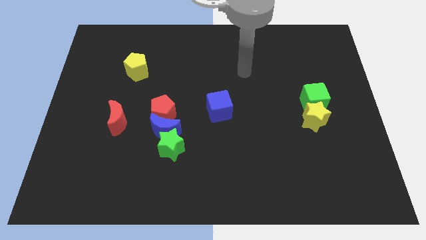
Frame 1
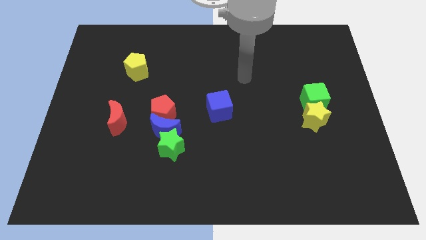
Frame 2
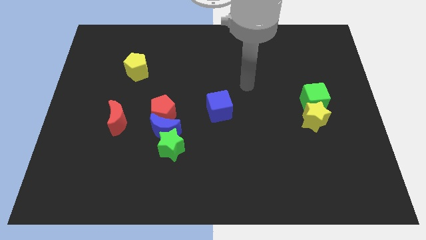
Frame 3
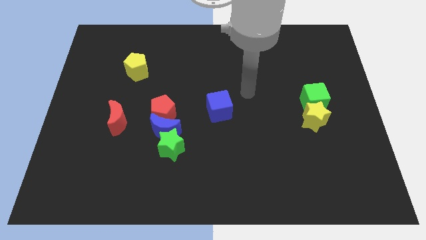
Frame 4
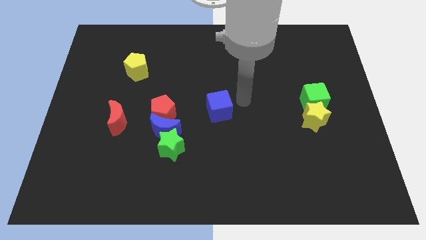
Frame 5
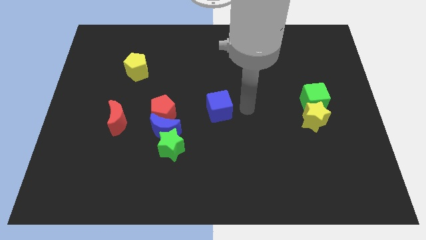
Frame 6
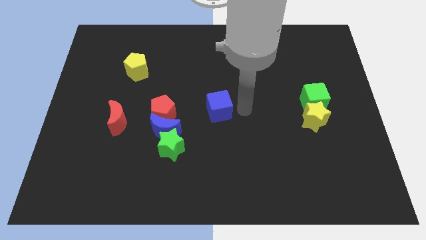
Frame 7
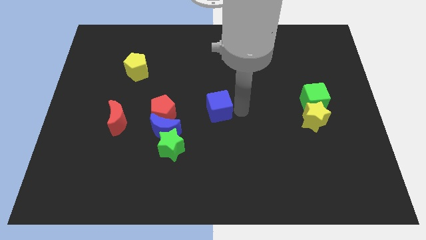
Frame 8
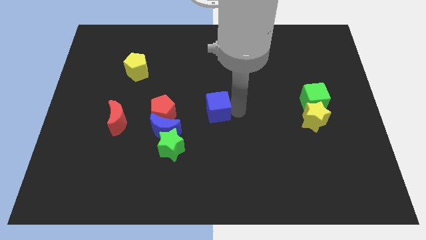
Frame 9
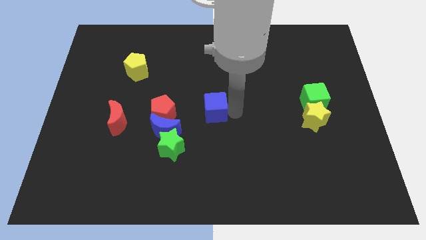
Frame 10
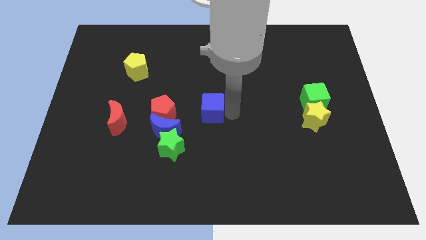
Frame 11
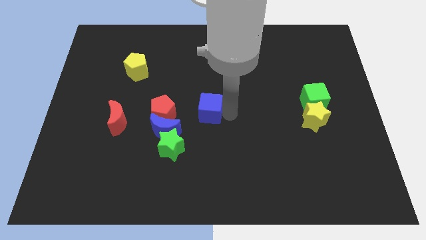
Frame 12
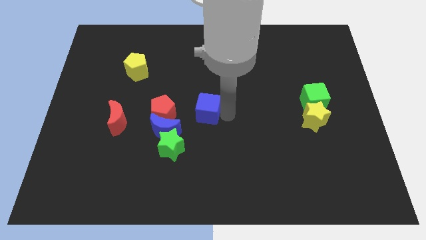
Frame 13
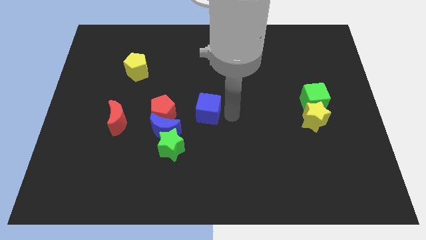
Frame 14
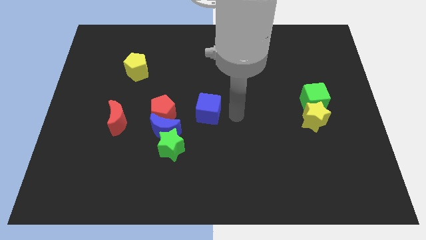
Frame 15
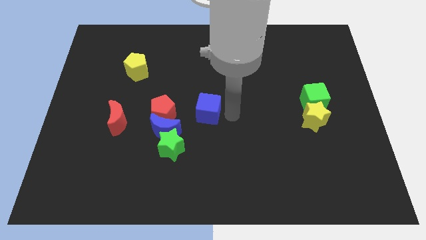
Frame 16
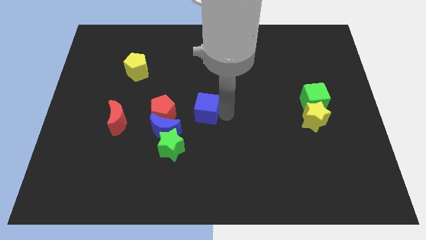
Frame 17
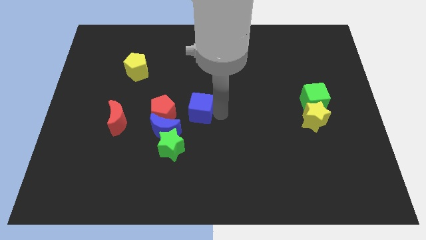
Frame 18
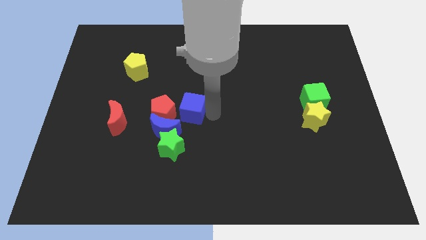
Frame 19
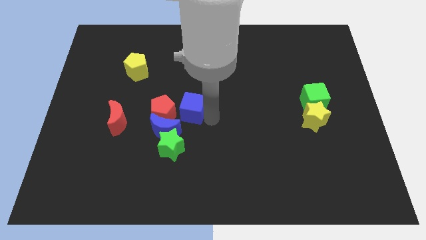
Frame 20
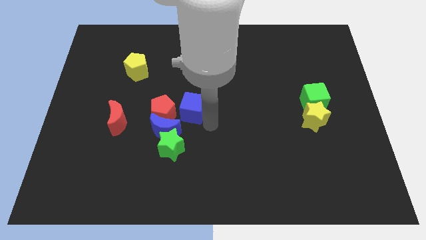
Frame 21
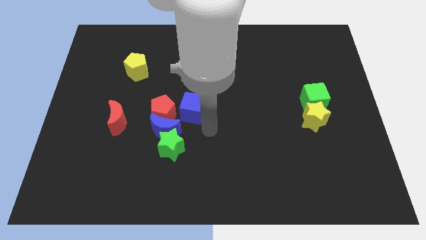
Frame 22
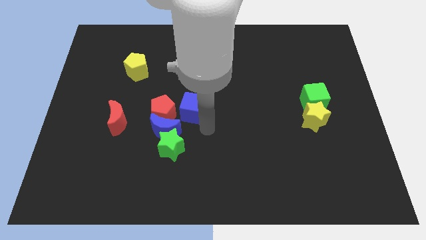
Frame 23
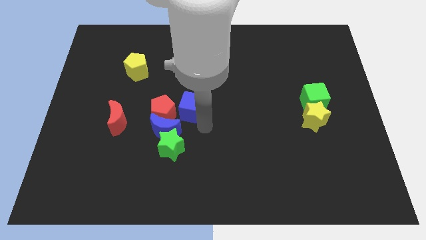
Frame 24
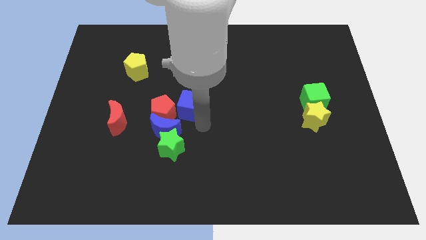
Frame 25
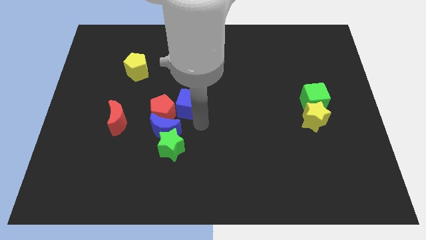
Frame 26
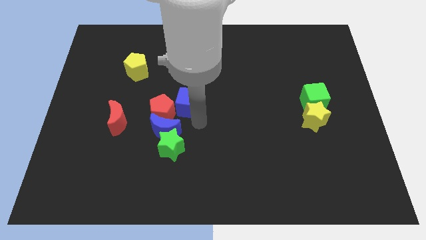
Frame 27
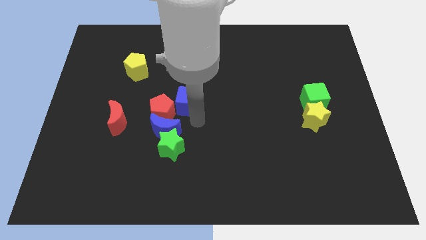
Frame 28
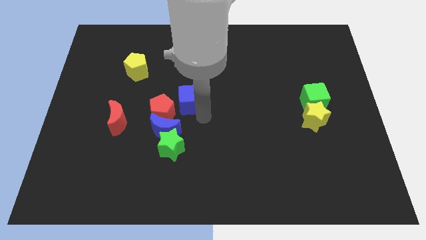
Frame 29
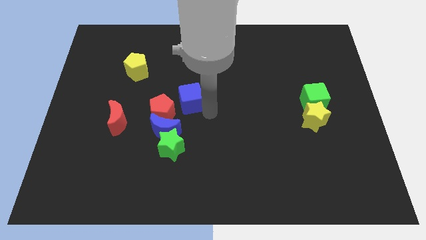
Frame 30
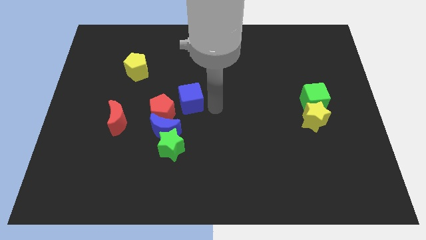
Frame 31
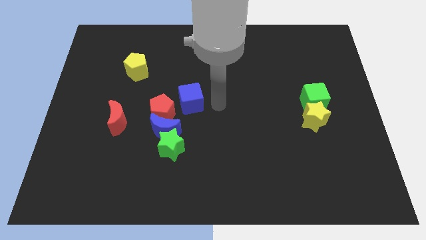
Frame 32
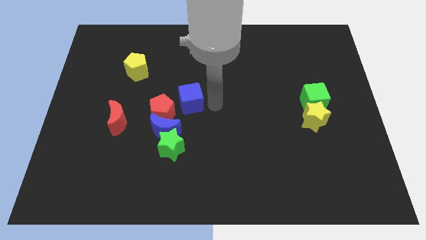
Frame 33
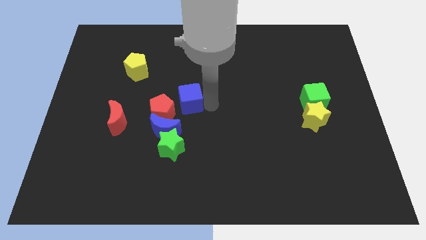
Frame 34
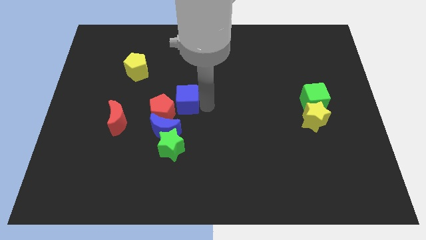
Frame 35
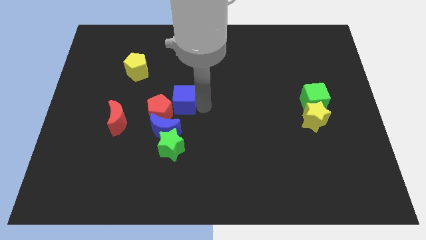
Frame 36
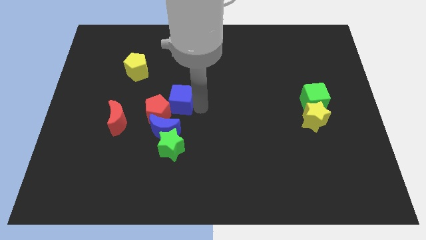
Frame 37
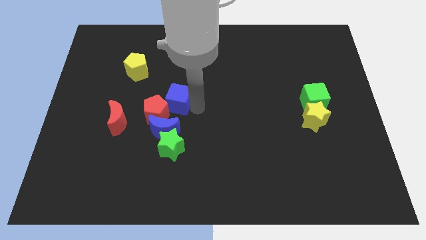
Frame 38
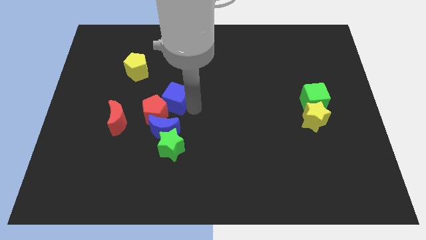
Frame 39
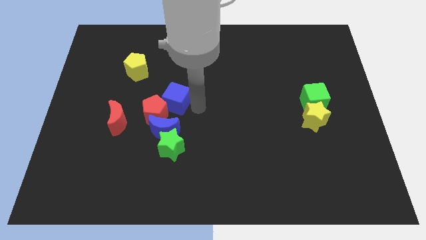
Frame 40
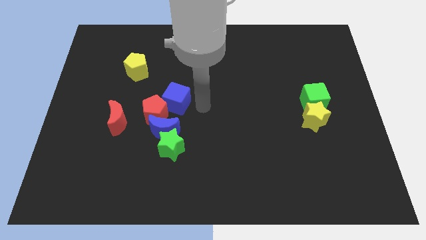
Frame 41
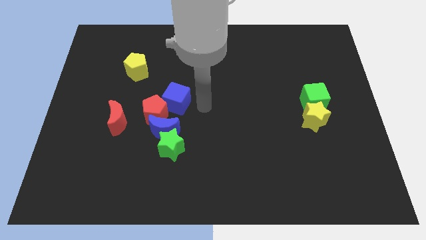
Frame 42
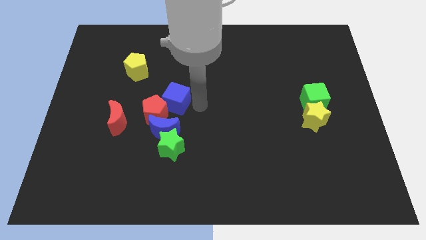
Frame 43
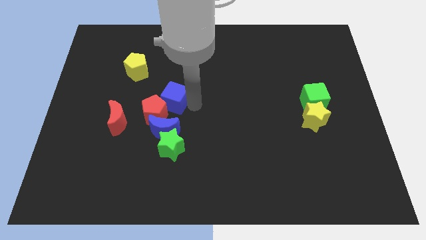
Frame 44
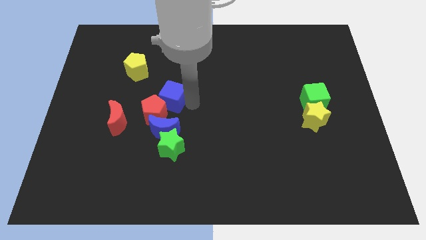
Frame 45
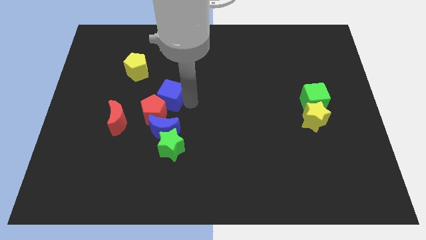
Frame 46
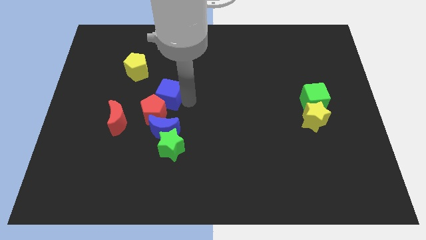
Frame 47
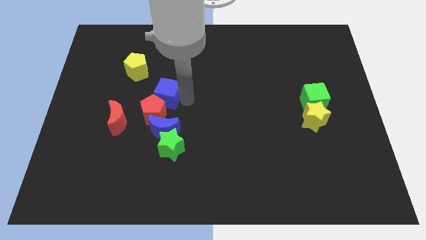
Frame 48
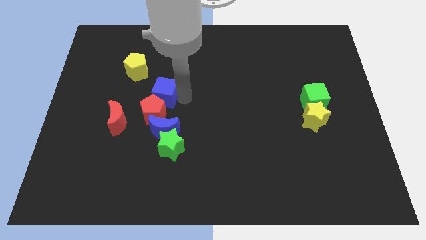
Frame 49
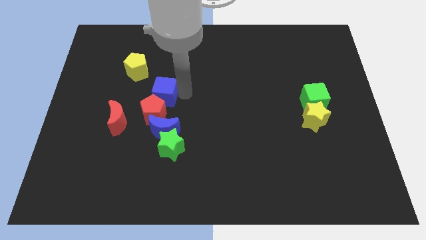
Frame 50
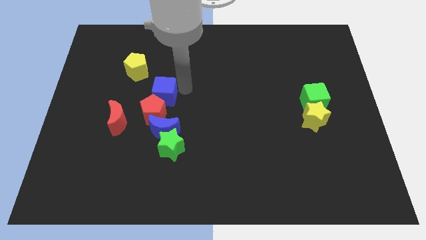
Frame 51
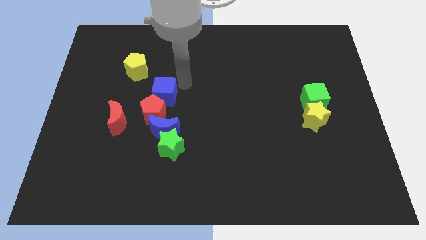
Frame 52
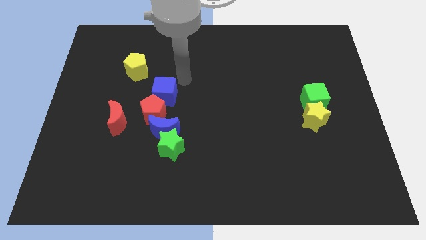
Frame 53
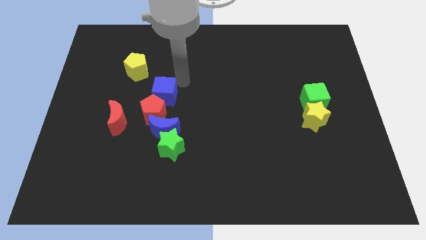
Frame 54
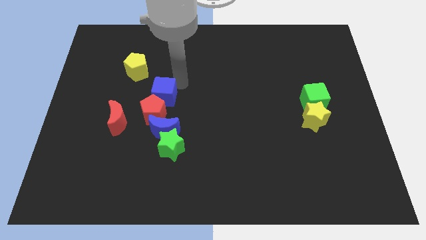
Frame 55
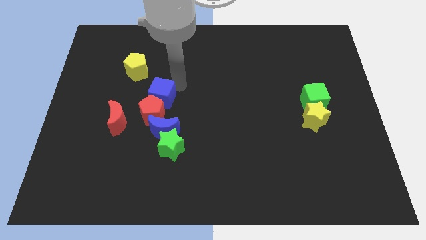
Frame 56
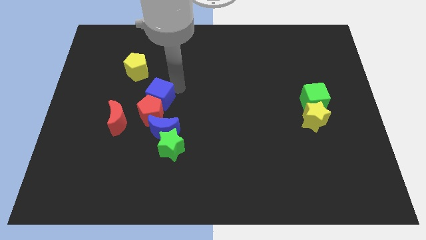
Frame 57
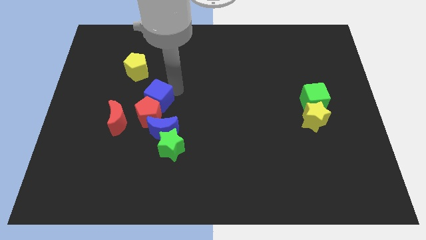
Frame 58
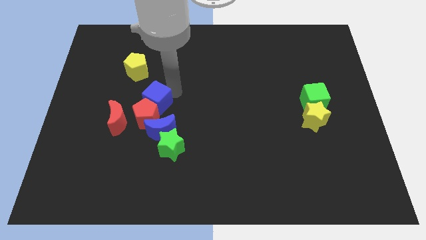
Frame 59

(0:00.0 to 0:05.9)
push the blue cube to the top left side of the blue moon

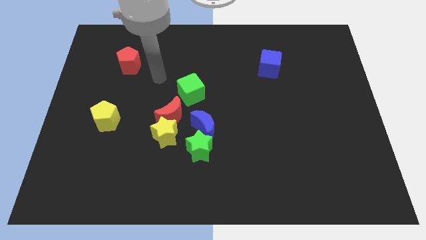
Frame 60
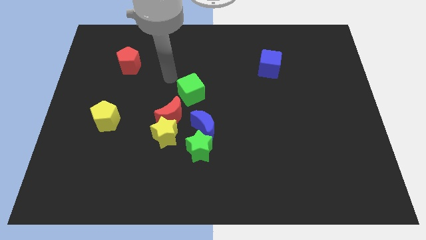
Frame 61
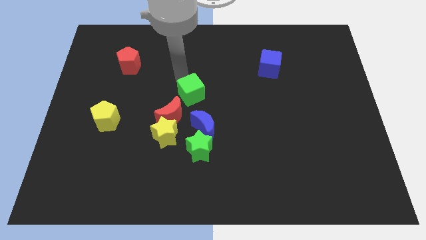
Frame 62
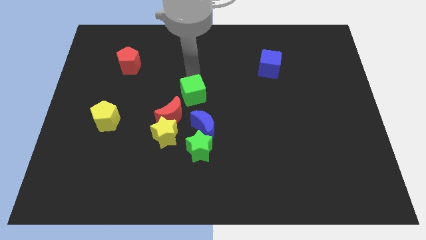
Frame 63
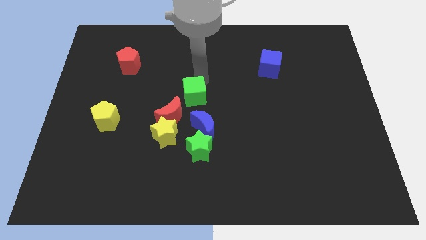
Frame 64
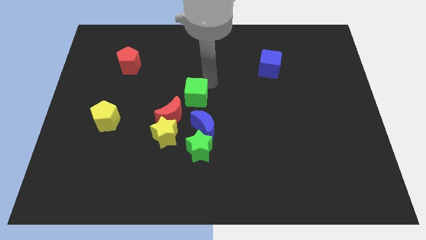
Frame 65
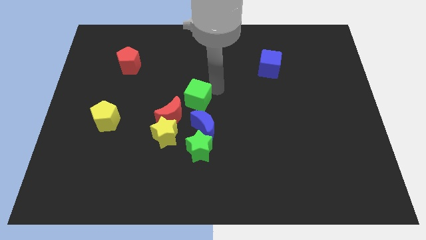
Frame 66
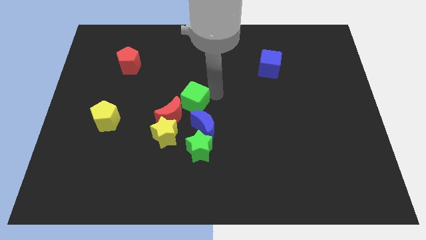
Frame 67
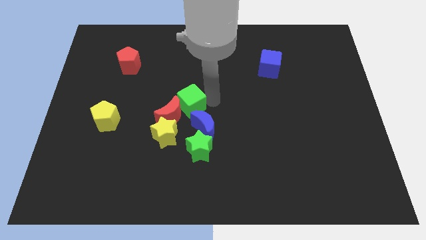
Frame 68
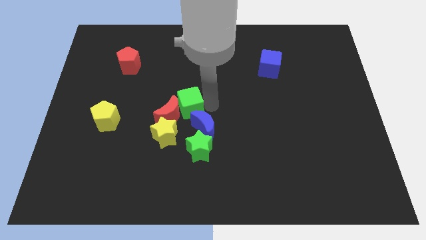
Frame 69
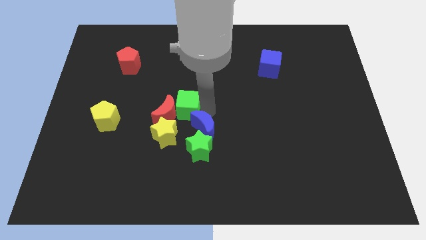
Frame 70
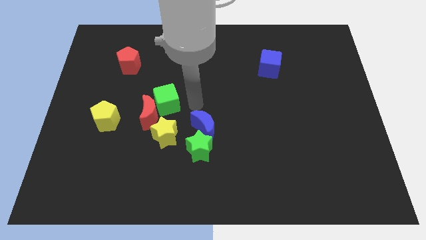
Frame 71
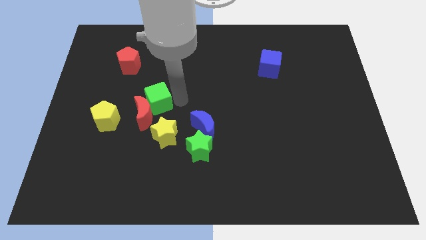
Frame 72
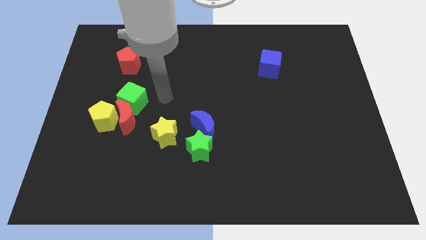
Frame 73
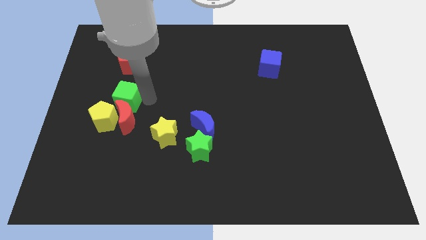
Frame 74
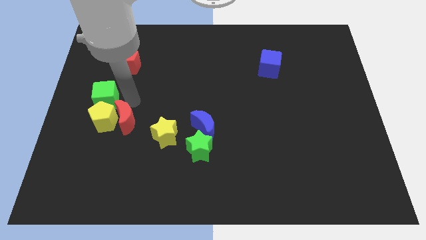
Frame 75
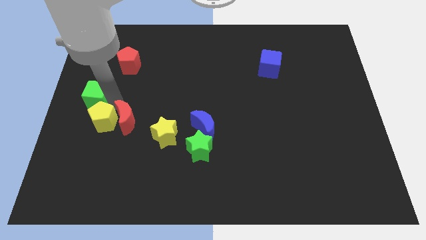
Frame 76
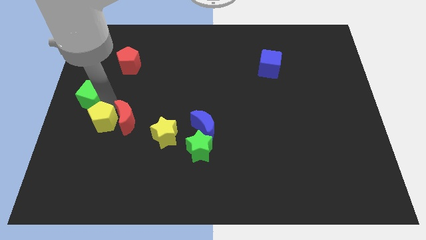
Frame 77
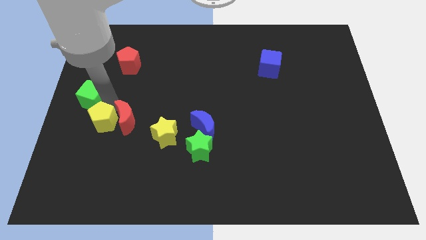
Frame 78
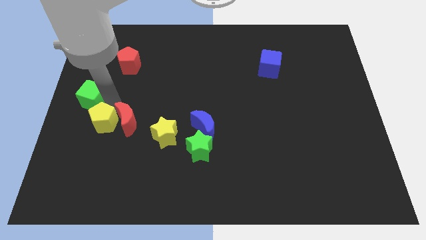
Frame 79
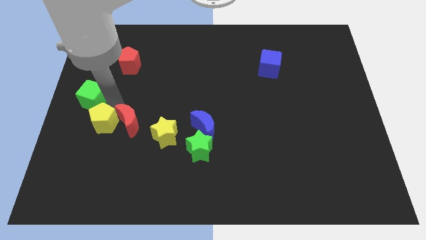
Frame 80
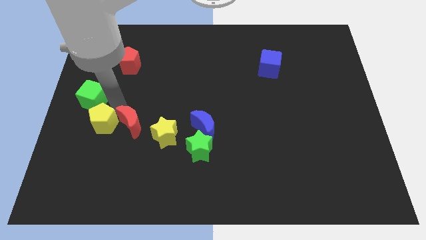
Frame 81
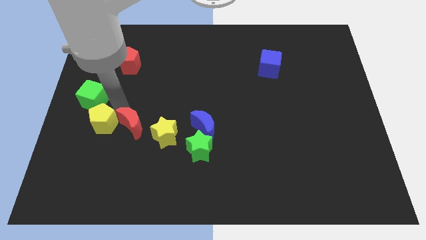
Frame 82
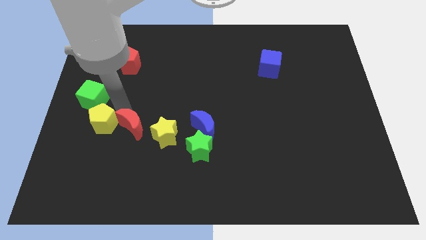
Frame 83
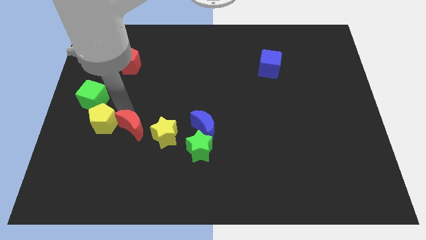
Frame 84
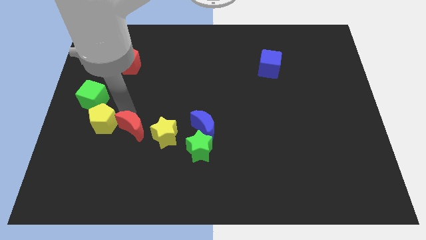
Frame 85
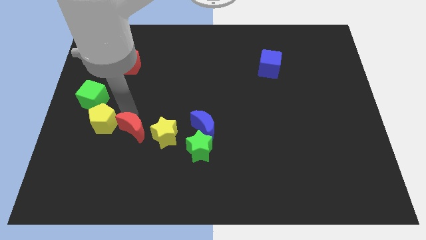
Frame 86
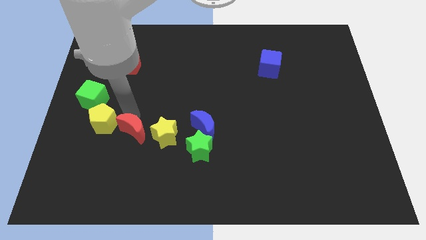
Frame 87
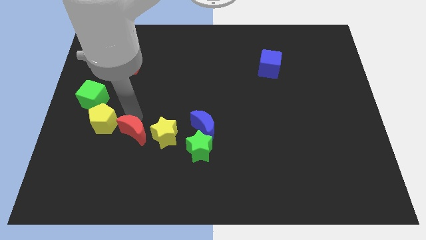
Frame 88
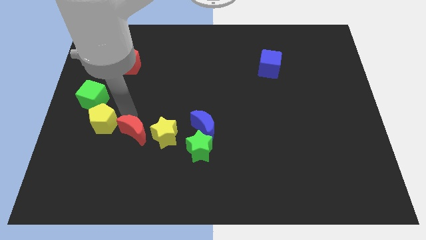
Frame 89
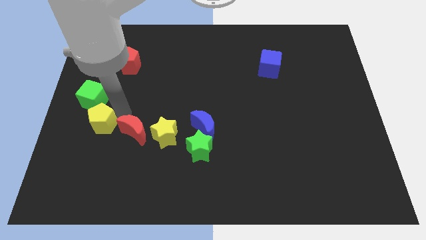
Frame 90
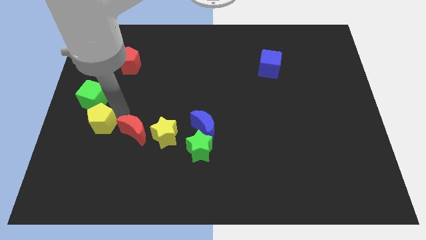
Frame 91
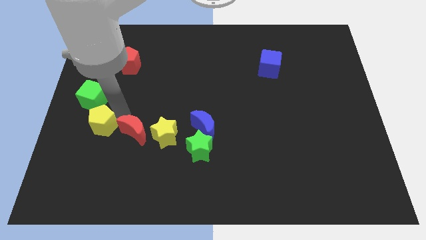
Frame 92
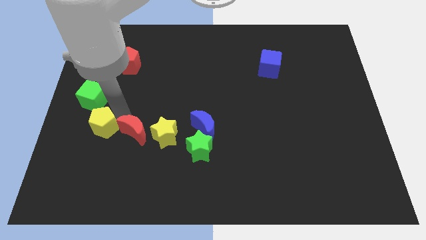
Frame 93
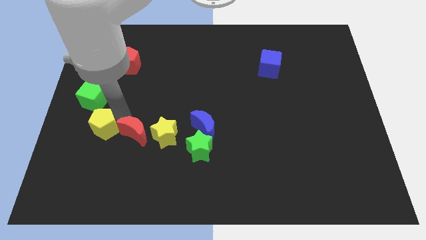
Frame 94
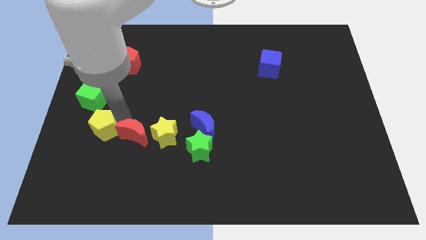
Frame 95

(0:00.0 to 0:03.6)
put the red moon to the left side of the green star
